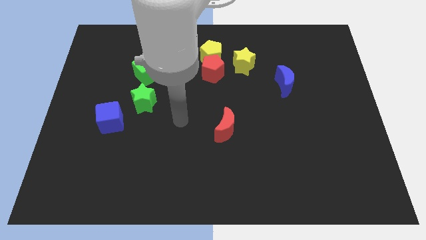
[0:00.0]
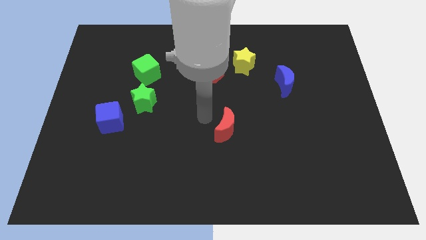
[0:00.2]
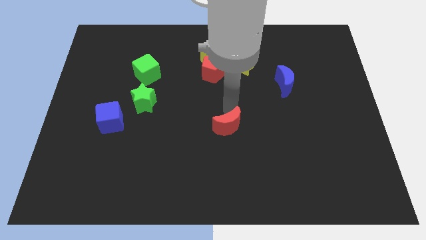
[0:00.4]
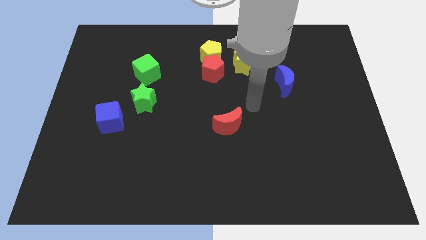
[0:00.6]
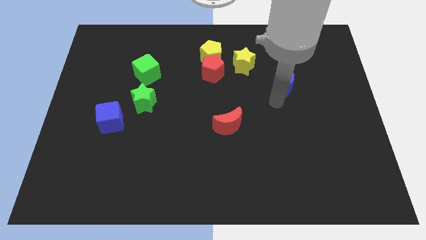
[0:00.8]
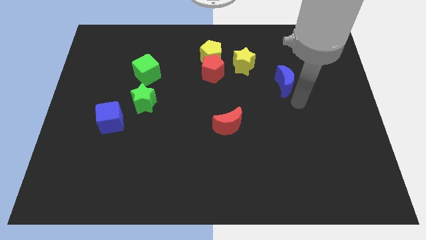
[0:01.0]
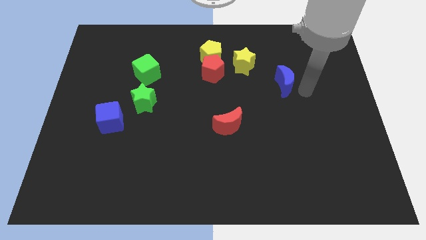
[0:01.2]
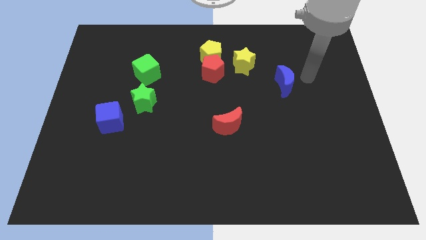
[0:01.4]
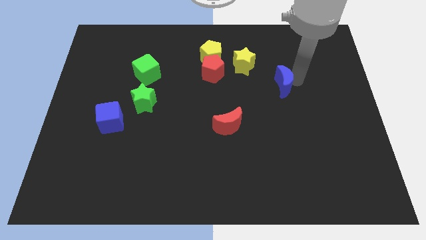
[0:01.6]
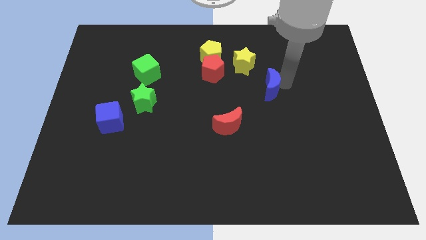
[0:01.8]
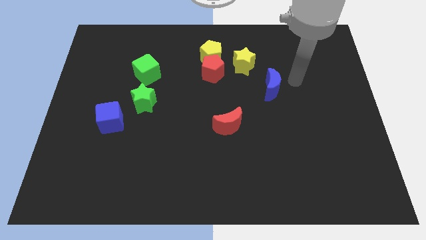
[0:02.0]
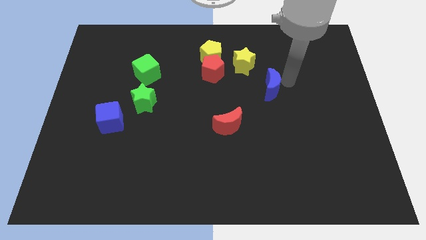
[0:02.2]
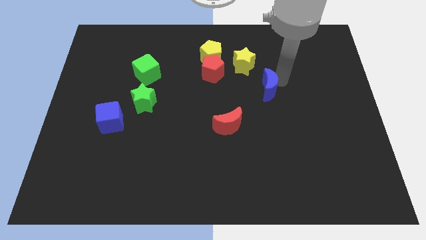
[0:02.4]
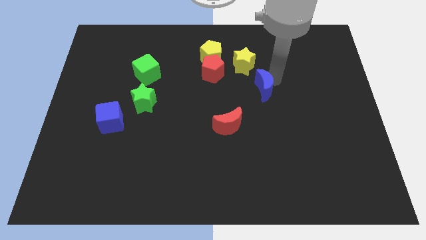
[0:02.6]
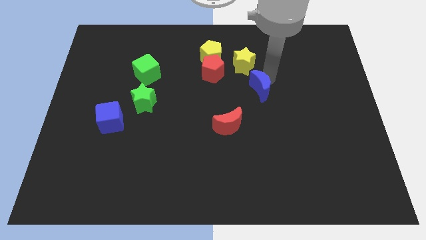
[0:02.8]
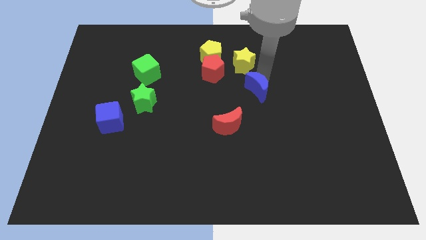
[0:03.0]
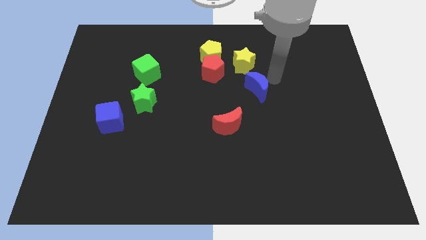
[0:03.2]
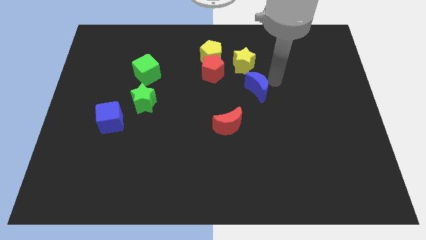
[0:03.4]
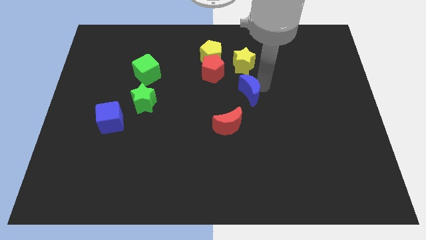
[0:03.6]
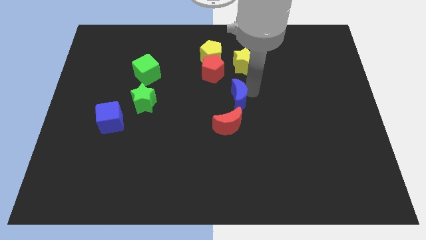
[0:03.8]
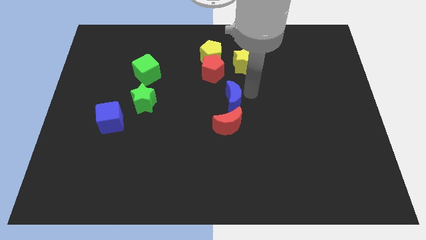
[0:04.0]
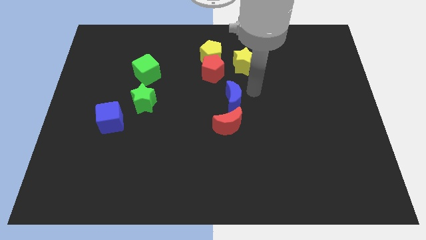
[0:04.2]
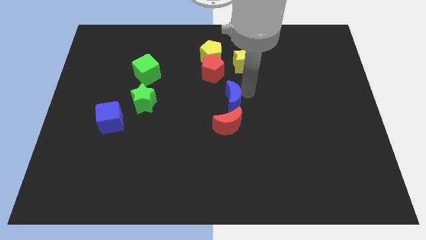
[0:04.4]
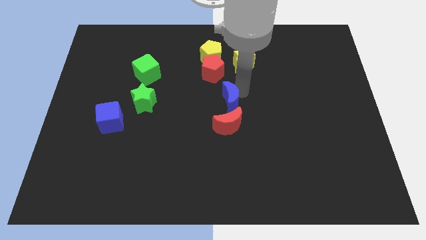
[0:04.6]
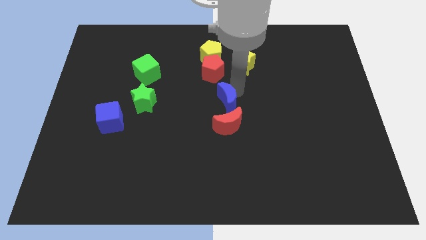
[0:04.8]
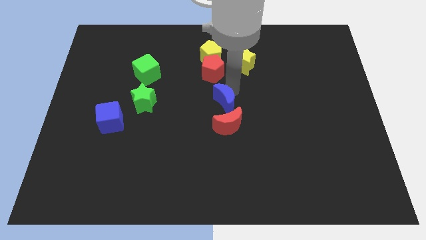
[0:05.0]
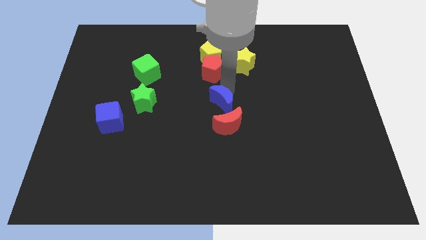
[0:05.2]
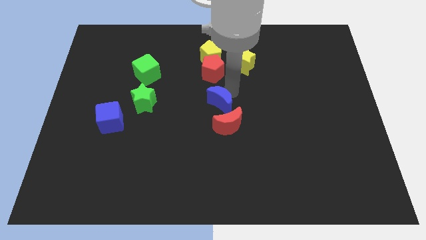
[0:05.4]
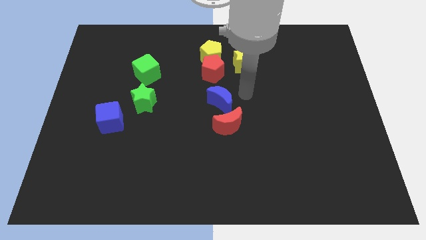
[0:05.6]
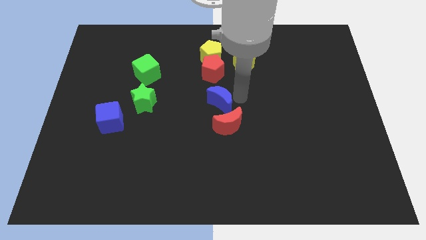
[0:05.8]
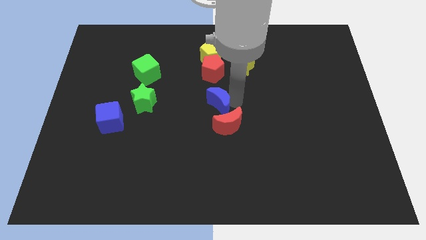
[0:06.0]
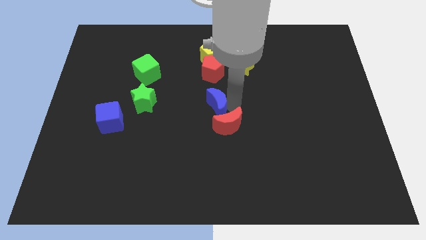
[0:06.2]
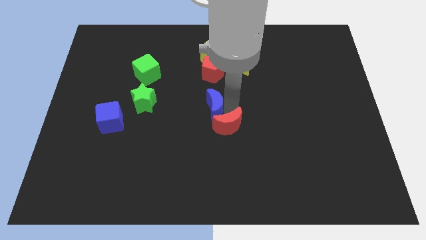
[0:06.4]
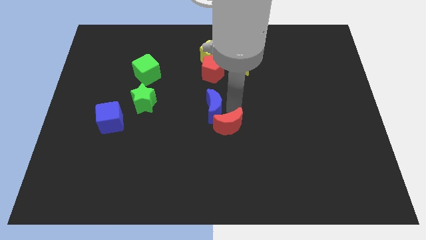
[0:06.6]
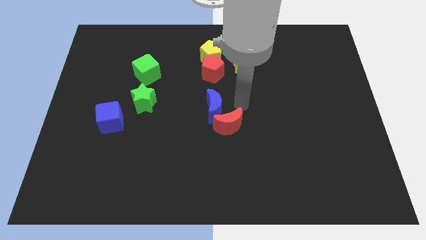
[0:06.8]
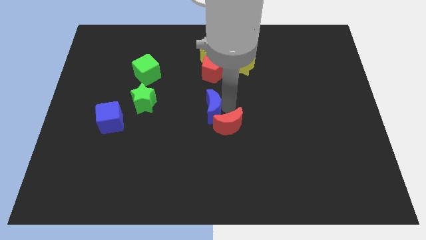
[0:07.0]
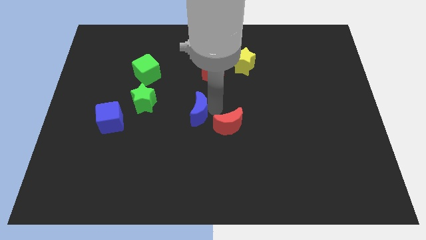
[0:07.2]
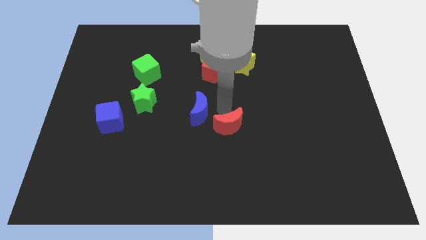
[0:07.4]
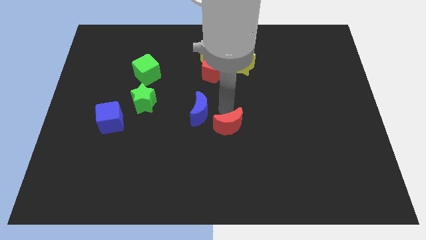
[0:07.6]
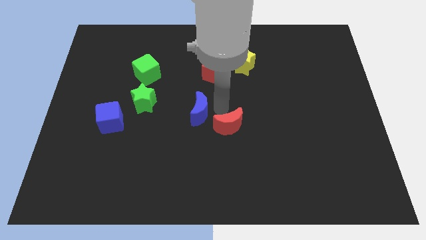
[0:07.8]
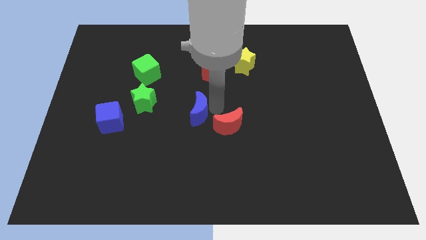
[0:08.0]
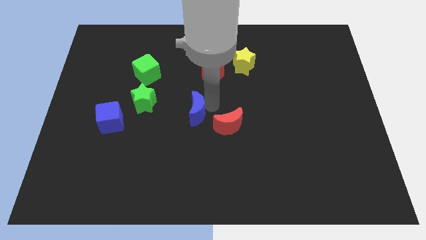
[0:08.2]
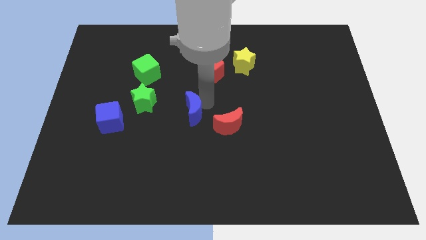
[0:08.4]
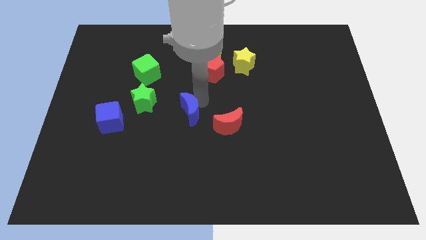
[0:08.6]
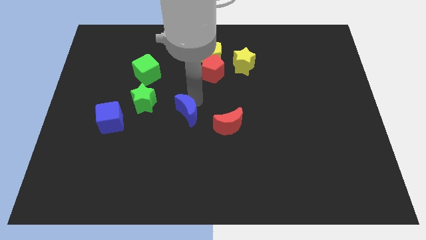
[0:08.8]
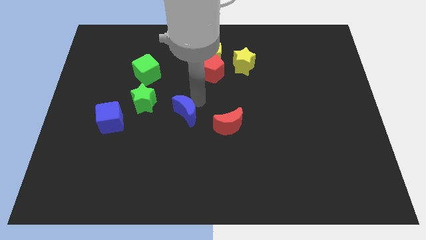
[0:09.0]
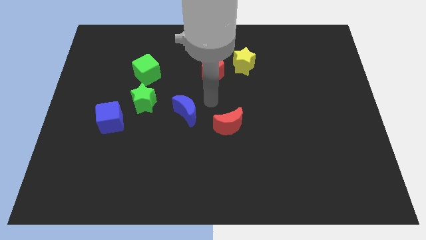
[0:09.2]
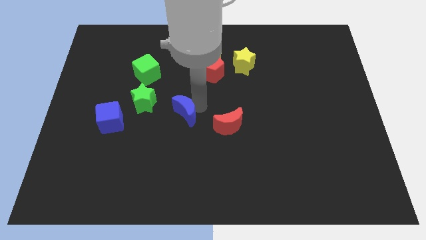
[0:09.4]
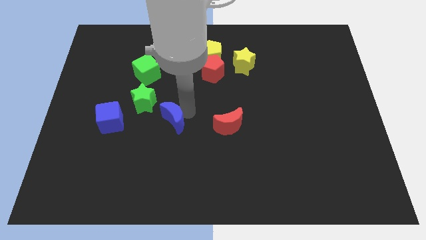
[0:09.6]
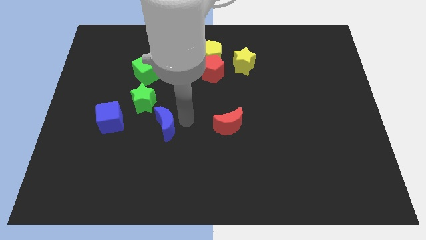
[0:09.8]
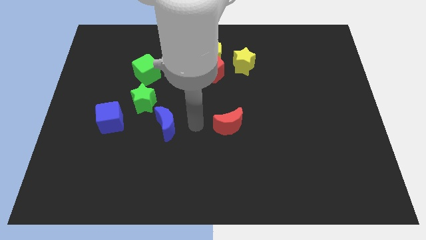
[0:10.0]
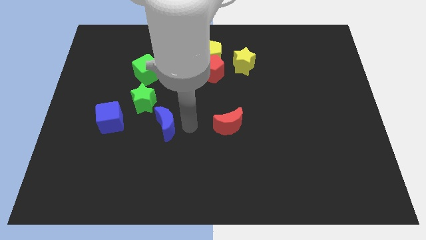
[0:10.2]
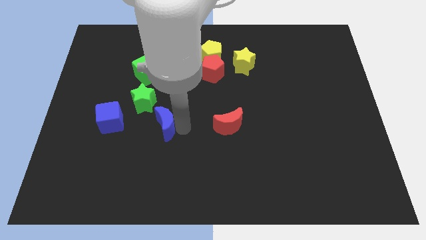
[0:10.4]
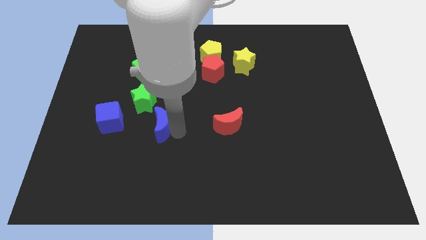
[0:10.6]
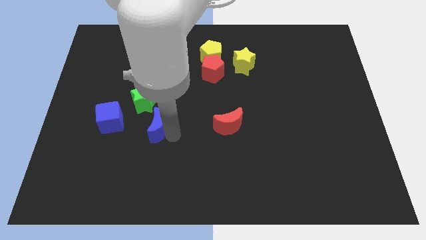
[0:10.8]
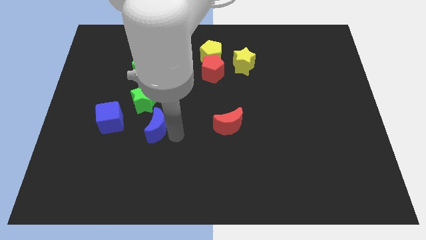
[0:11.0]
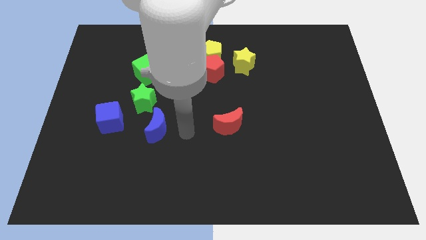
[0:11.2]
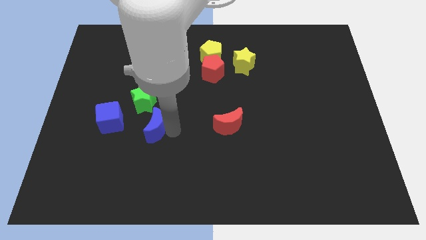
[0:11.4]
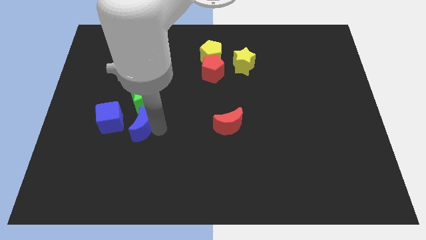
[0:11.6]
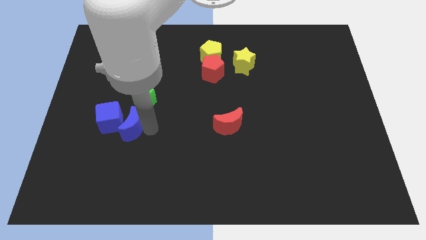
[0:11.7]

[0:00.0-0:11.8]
slide the blue moon to the blue cube

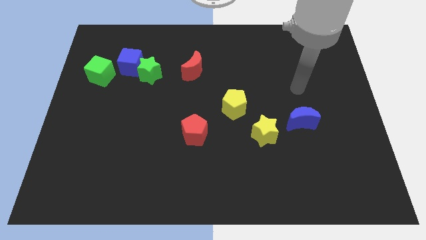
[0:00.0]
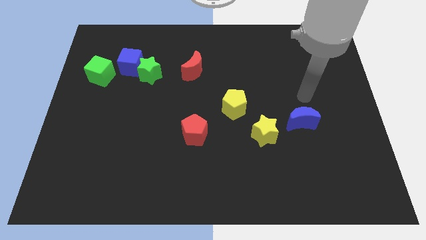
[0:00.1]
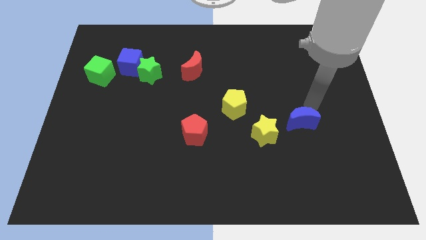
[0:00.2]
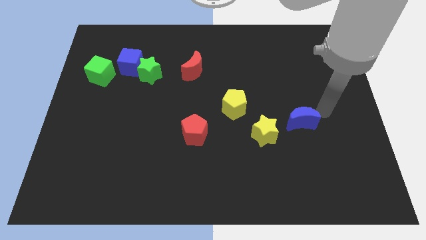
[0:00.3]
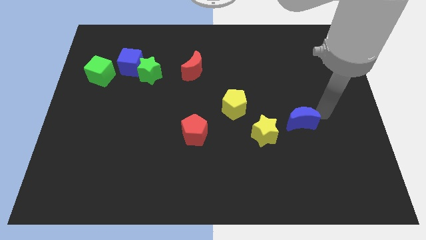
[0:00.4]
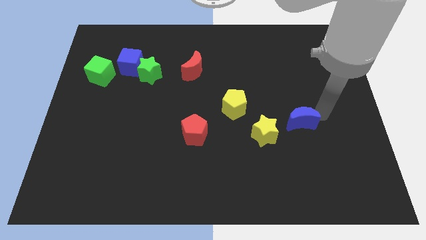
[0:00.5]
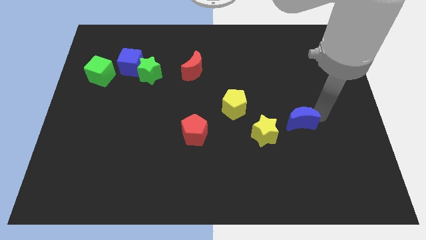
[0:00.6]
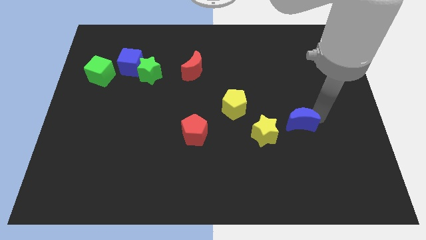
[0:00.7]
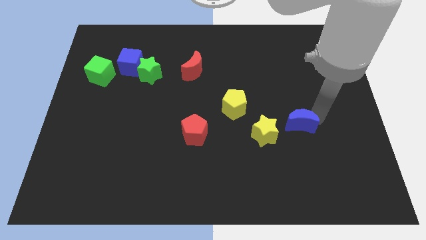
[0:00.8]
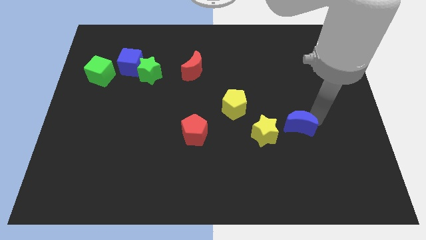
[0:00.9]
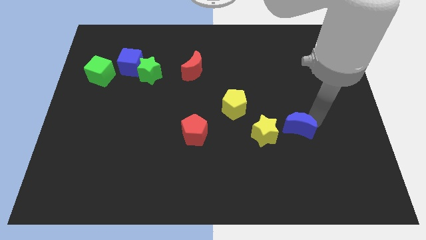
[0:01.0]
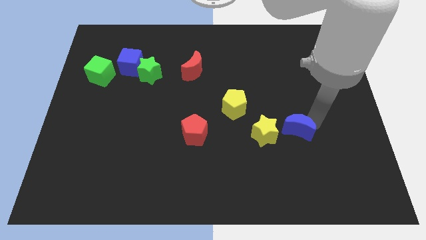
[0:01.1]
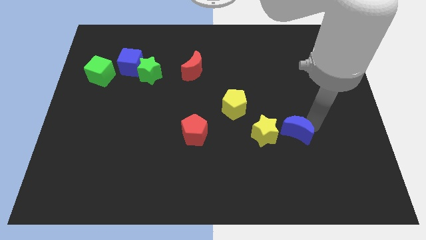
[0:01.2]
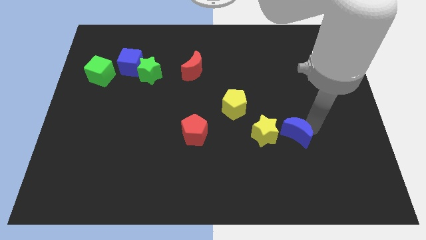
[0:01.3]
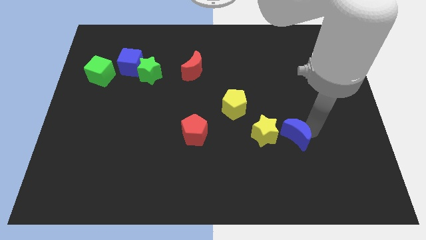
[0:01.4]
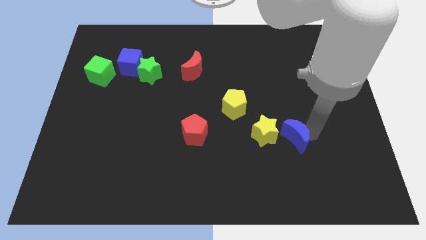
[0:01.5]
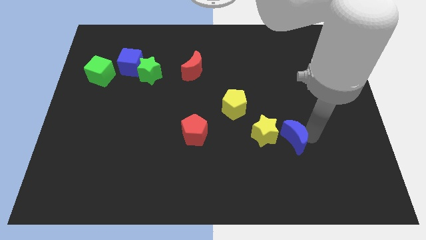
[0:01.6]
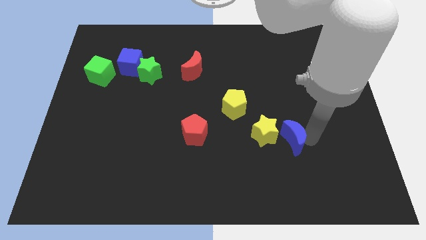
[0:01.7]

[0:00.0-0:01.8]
push the blue moon next to the yellow star

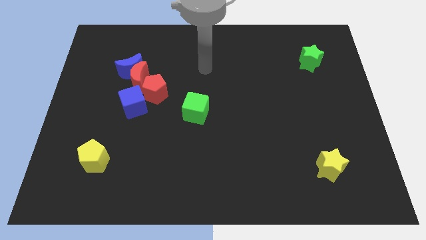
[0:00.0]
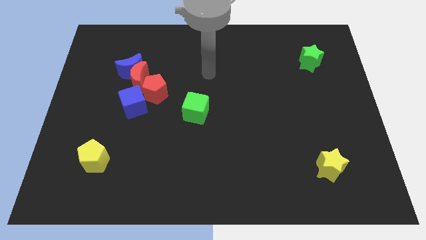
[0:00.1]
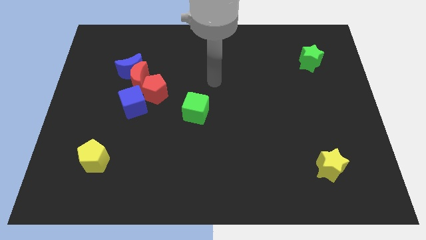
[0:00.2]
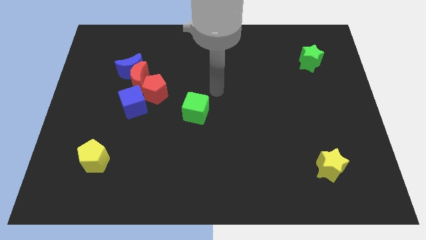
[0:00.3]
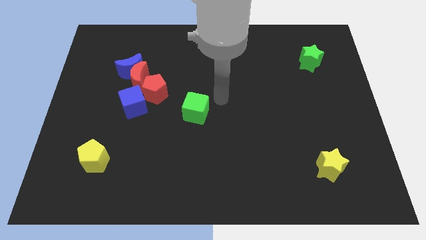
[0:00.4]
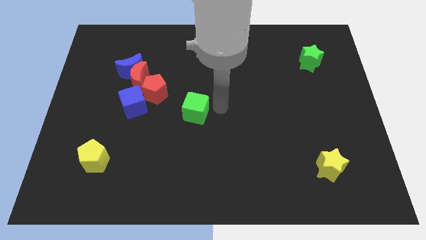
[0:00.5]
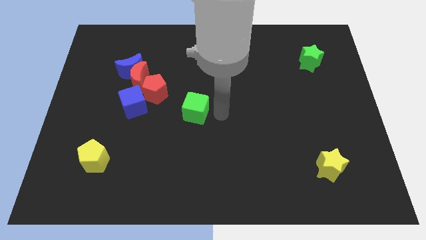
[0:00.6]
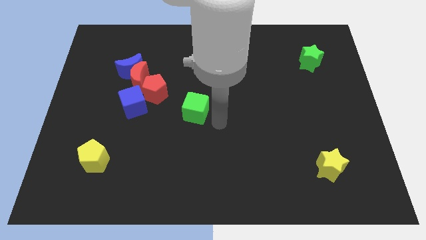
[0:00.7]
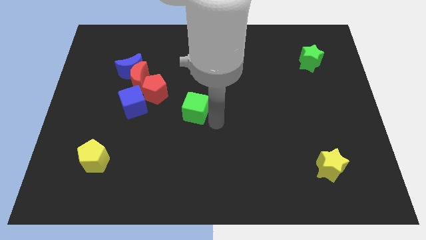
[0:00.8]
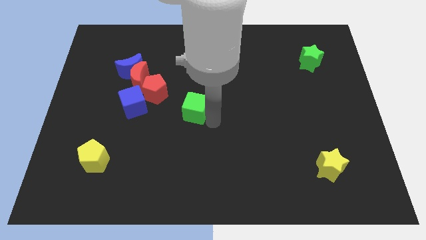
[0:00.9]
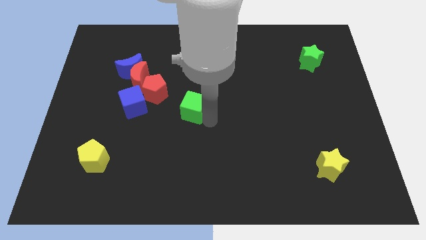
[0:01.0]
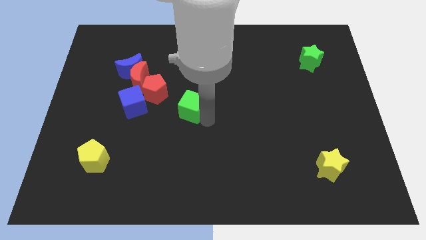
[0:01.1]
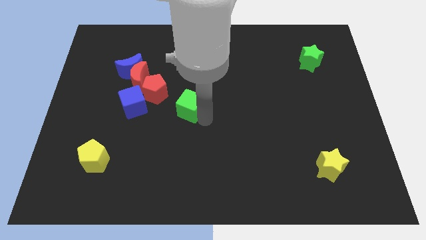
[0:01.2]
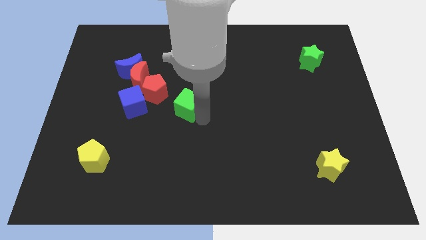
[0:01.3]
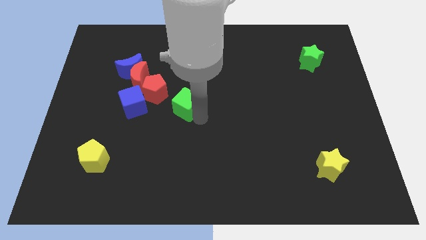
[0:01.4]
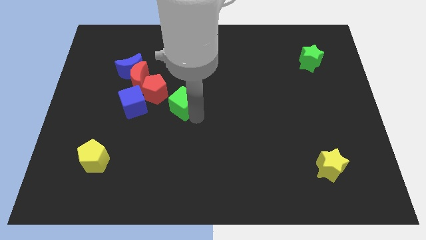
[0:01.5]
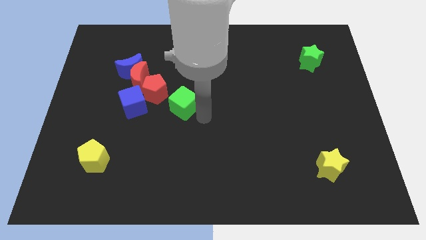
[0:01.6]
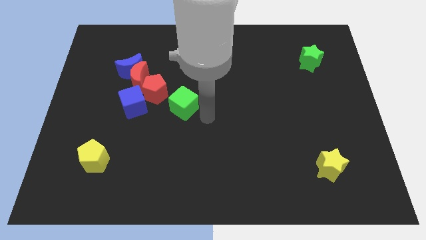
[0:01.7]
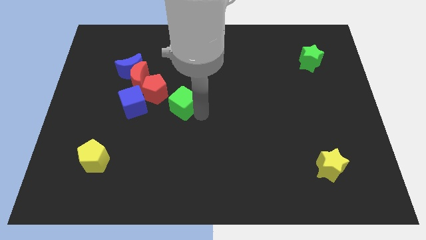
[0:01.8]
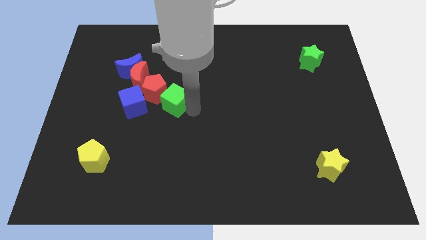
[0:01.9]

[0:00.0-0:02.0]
slide the green cube towards the red pentagon
